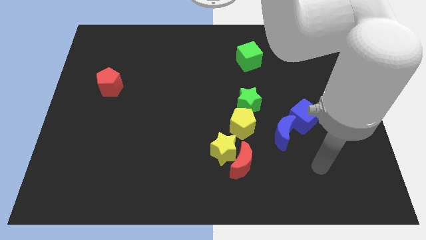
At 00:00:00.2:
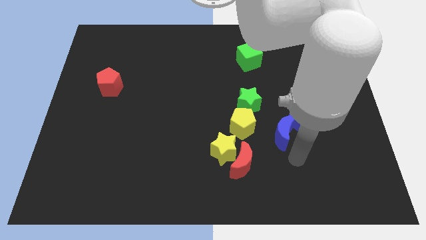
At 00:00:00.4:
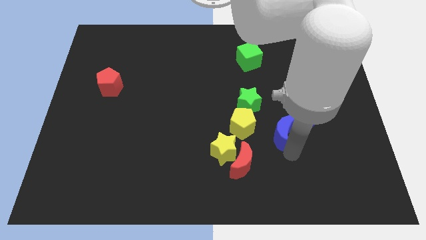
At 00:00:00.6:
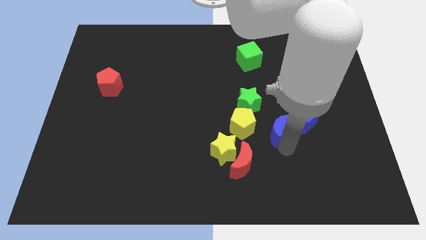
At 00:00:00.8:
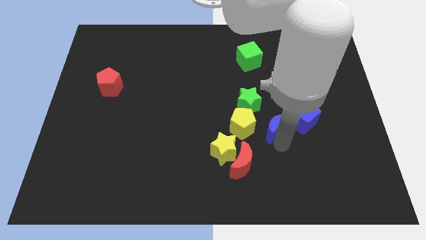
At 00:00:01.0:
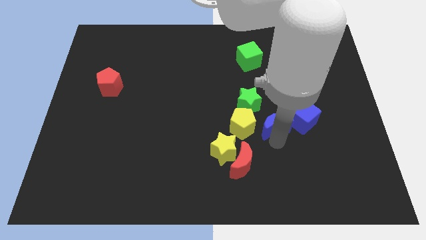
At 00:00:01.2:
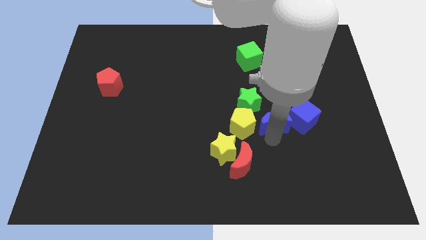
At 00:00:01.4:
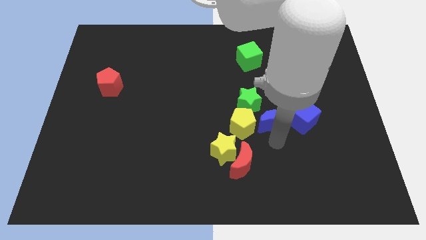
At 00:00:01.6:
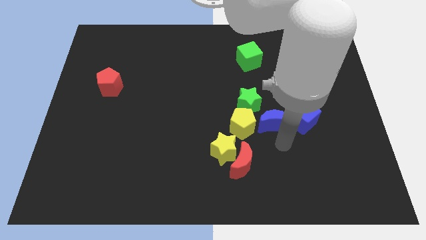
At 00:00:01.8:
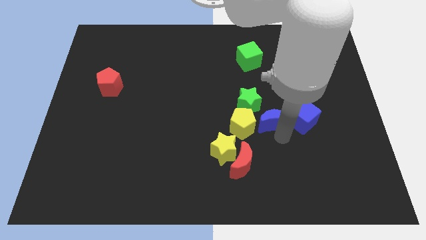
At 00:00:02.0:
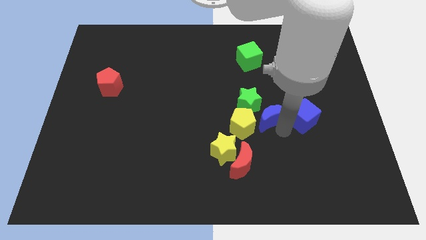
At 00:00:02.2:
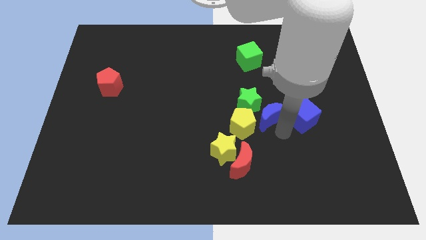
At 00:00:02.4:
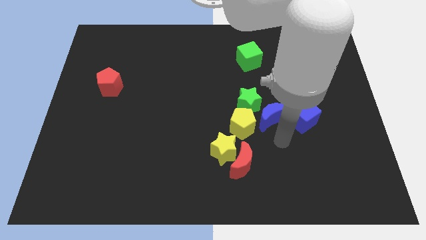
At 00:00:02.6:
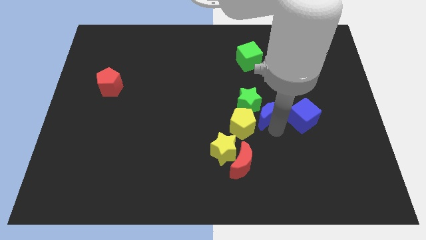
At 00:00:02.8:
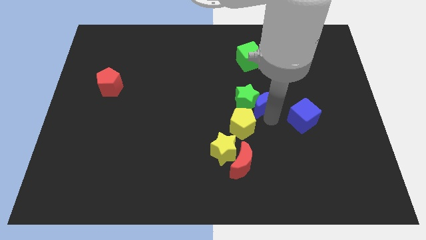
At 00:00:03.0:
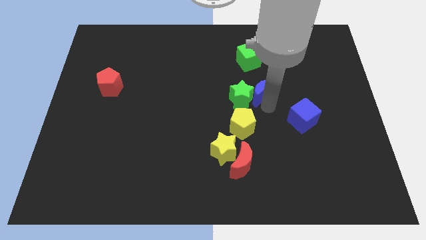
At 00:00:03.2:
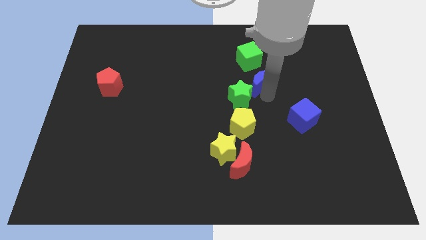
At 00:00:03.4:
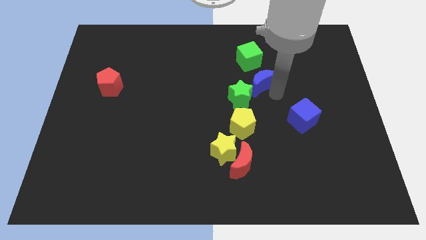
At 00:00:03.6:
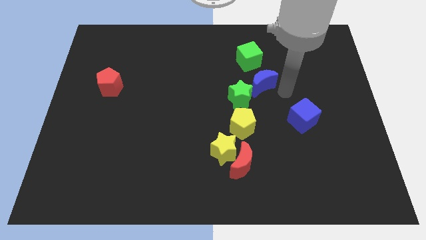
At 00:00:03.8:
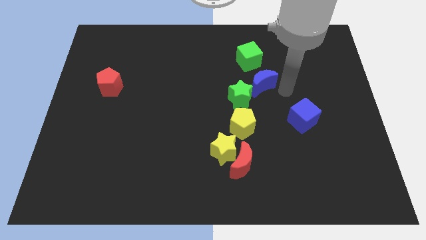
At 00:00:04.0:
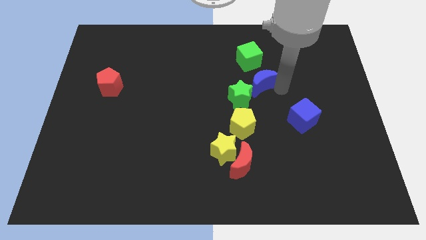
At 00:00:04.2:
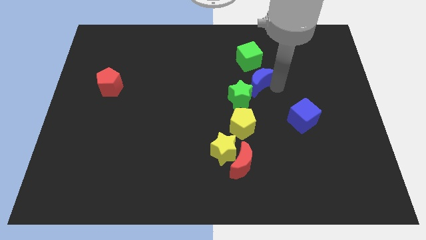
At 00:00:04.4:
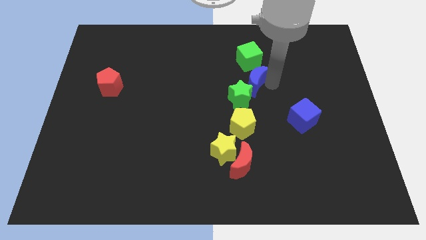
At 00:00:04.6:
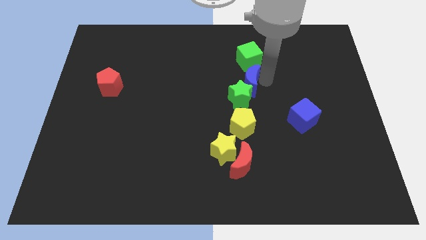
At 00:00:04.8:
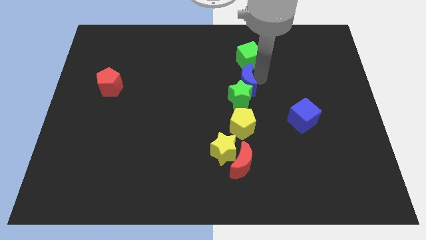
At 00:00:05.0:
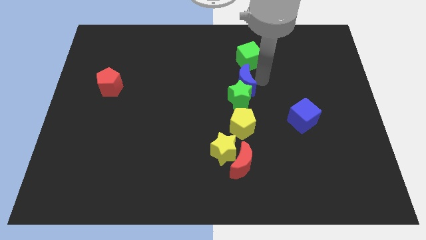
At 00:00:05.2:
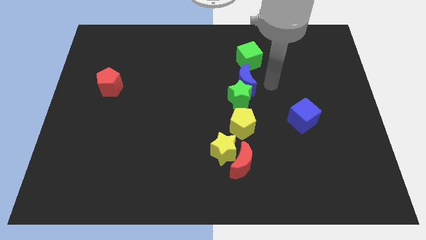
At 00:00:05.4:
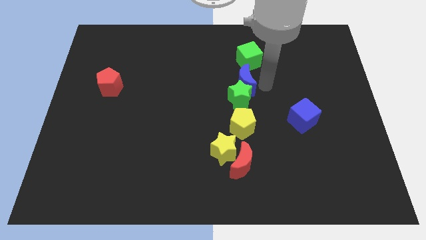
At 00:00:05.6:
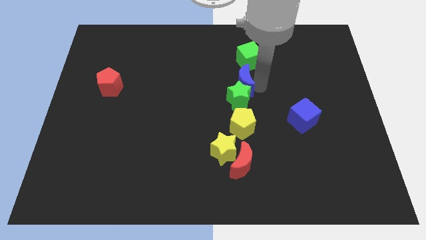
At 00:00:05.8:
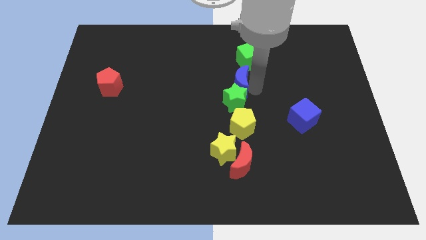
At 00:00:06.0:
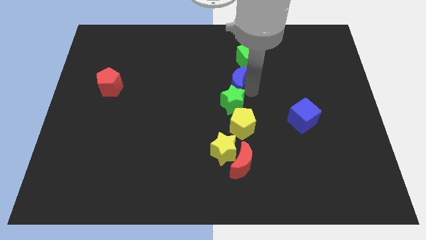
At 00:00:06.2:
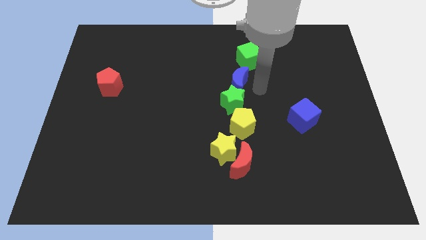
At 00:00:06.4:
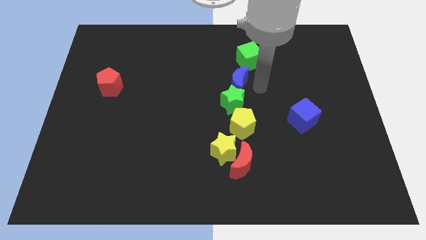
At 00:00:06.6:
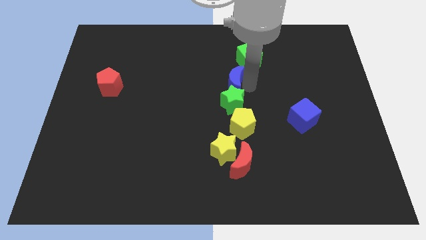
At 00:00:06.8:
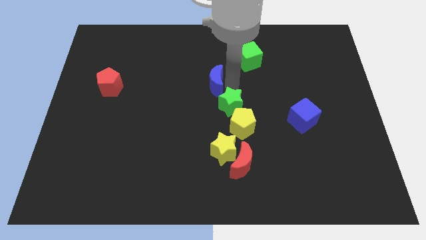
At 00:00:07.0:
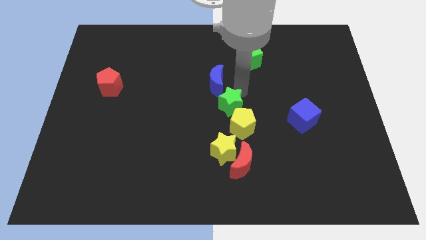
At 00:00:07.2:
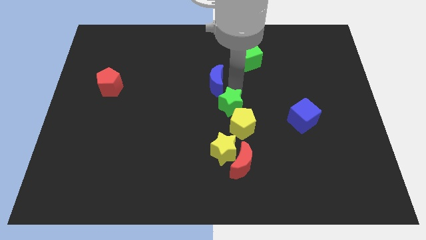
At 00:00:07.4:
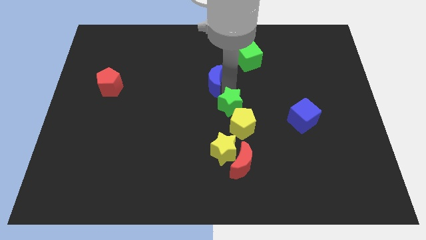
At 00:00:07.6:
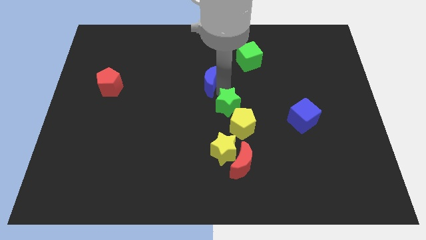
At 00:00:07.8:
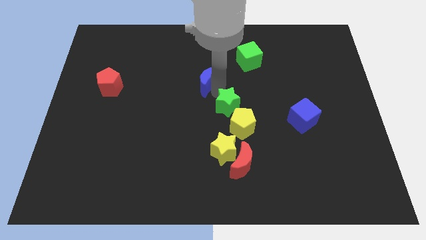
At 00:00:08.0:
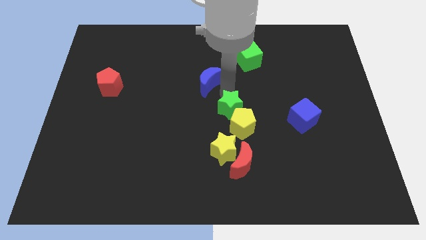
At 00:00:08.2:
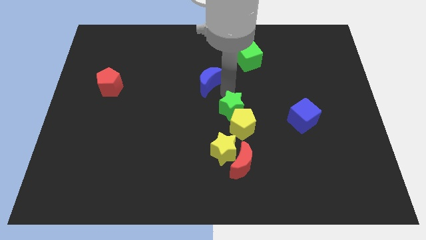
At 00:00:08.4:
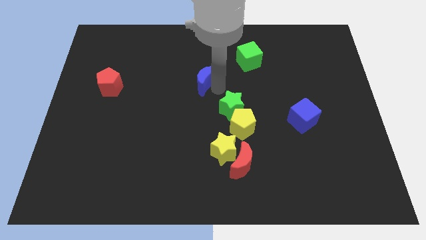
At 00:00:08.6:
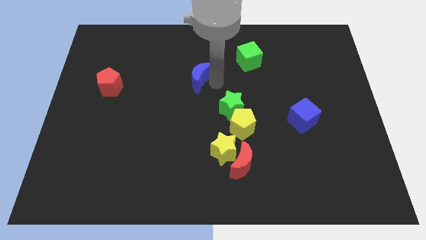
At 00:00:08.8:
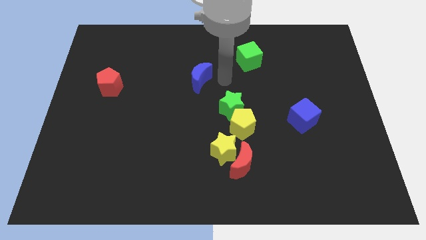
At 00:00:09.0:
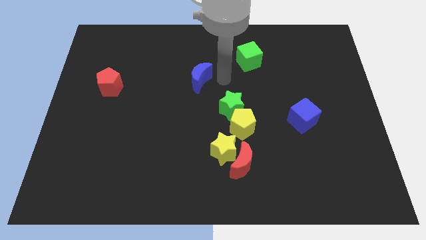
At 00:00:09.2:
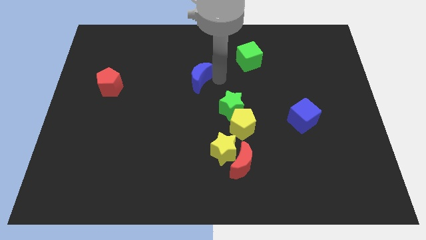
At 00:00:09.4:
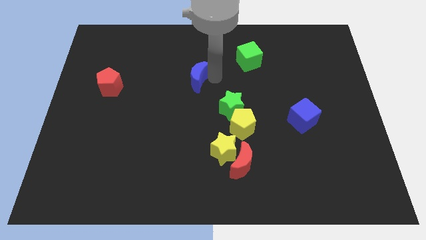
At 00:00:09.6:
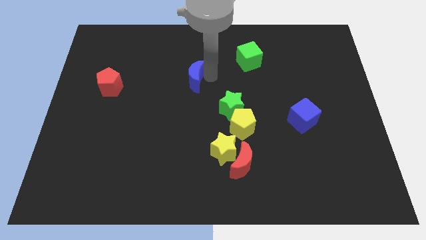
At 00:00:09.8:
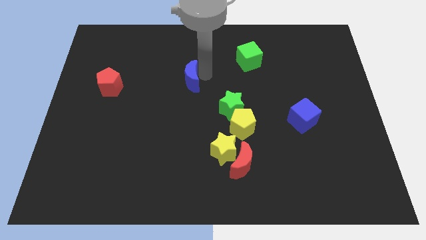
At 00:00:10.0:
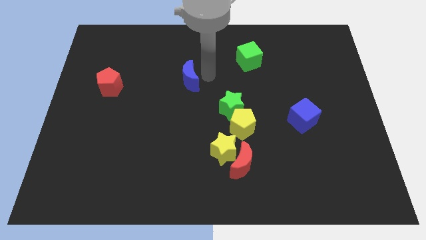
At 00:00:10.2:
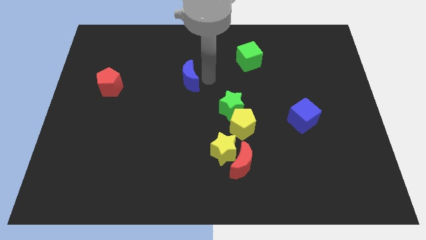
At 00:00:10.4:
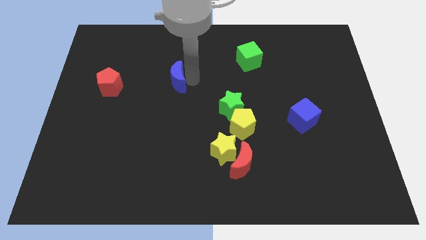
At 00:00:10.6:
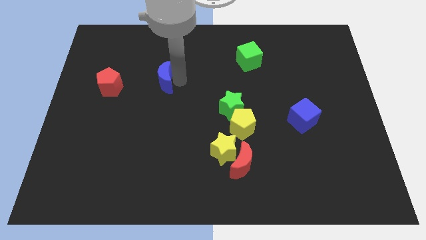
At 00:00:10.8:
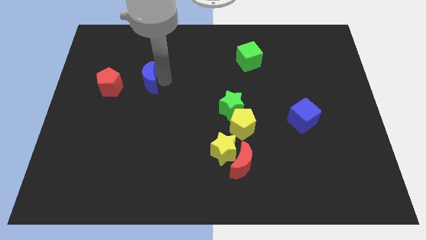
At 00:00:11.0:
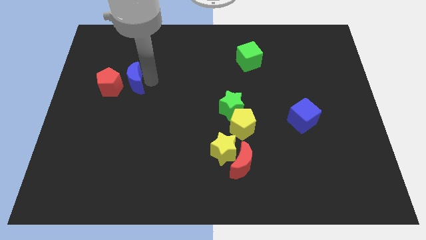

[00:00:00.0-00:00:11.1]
move the blue moon close to the red pentagon

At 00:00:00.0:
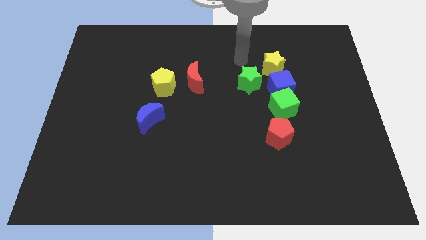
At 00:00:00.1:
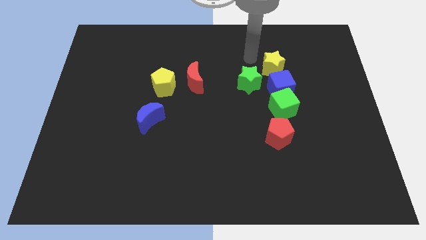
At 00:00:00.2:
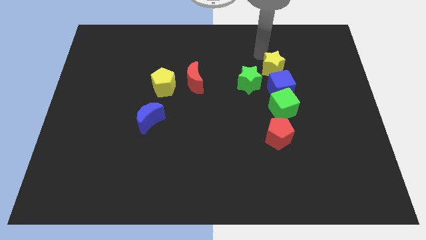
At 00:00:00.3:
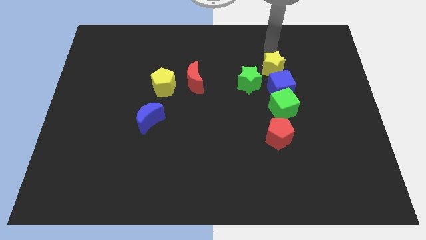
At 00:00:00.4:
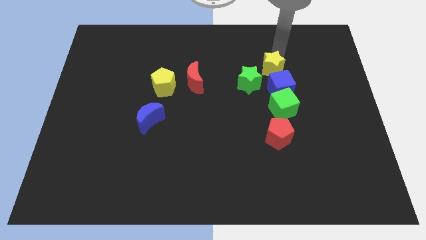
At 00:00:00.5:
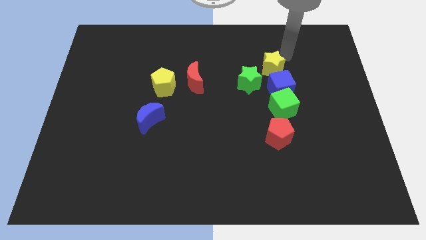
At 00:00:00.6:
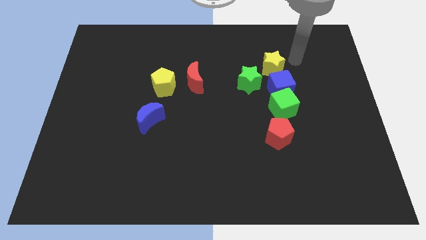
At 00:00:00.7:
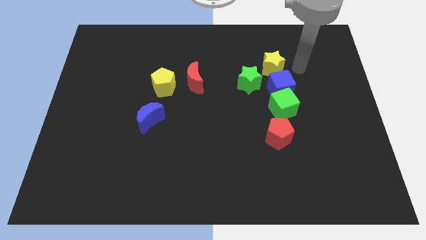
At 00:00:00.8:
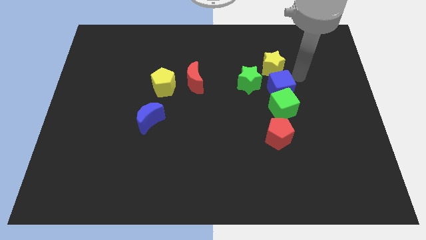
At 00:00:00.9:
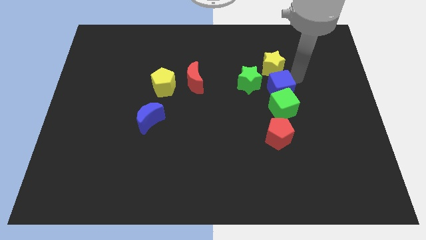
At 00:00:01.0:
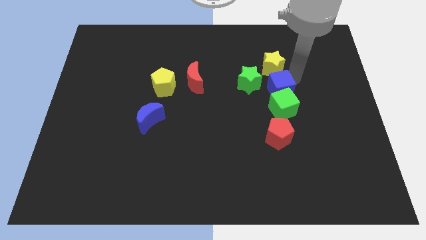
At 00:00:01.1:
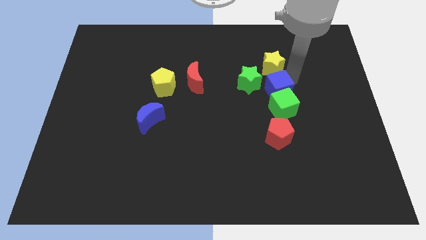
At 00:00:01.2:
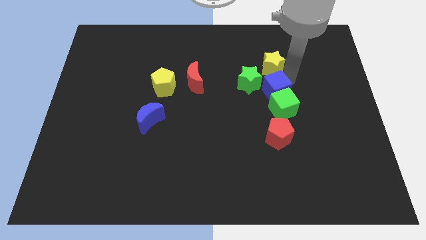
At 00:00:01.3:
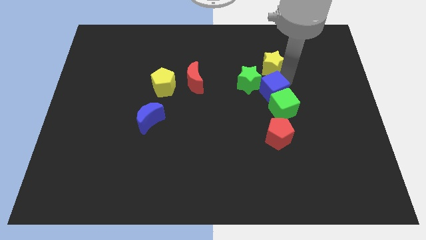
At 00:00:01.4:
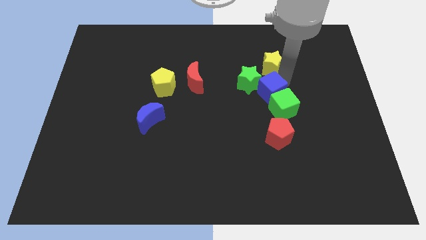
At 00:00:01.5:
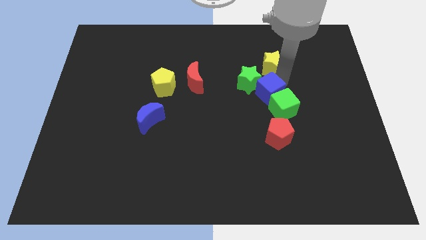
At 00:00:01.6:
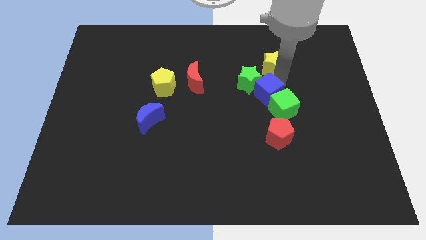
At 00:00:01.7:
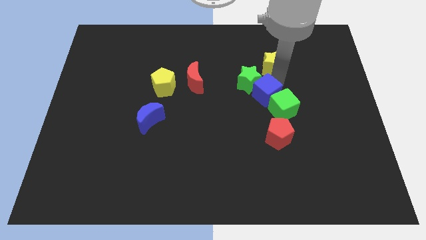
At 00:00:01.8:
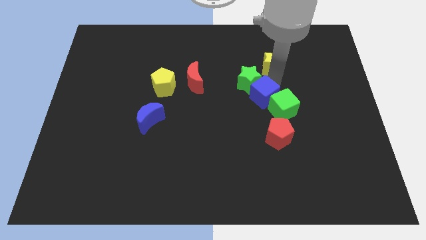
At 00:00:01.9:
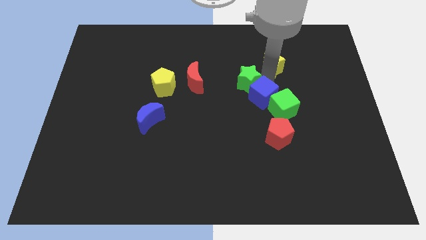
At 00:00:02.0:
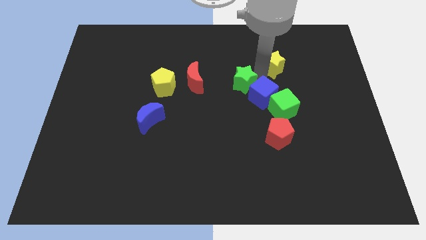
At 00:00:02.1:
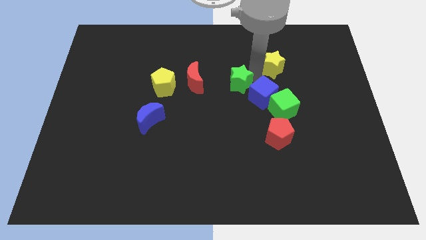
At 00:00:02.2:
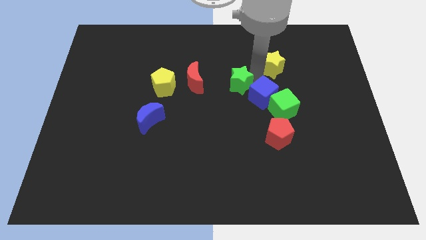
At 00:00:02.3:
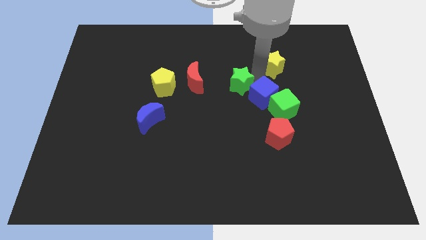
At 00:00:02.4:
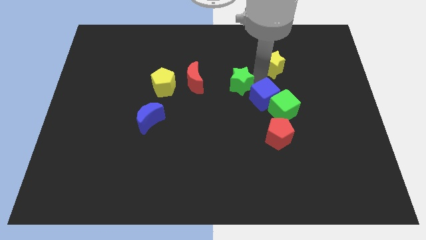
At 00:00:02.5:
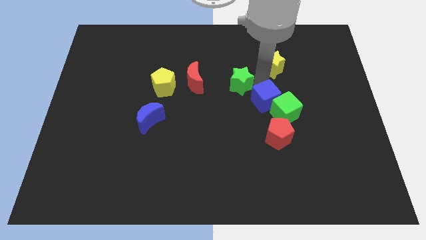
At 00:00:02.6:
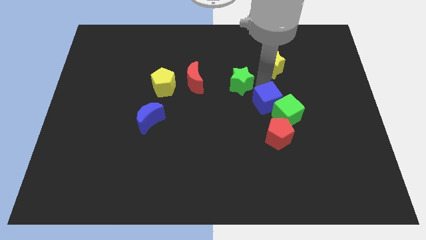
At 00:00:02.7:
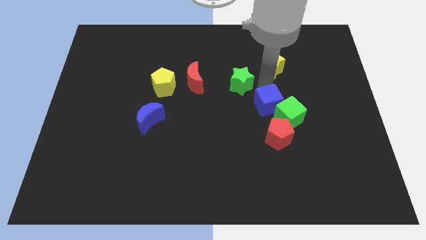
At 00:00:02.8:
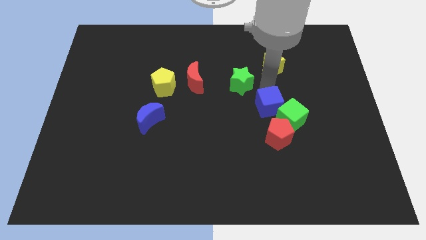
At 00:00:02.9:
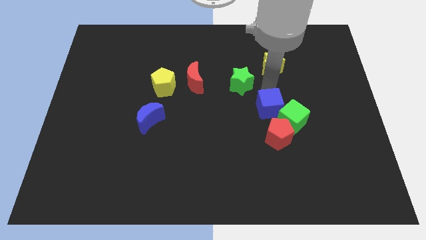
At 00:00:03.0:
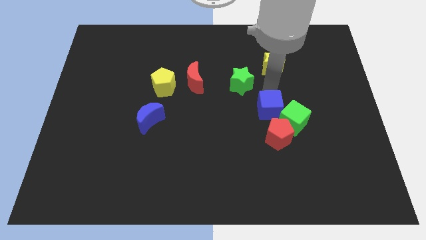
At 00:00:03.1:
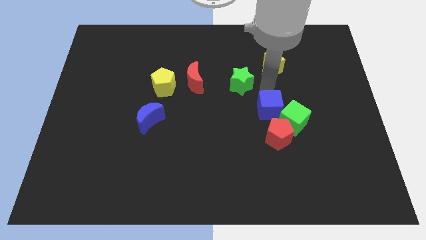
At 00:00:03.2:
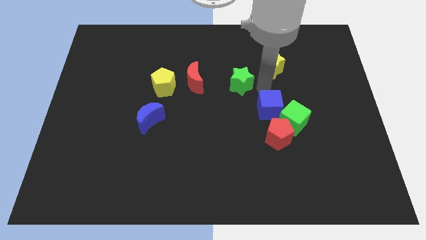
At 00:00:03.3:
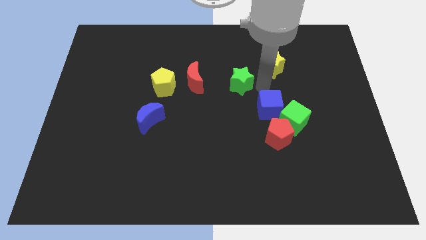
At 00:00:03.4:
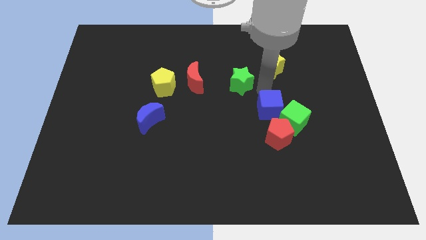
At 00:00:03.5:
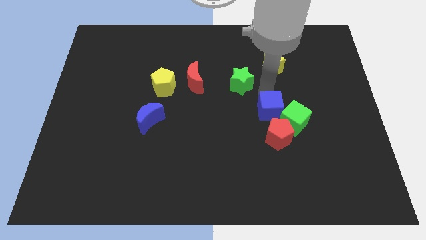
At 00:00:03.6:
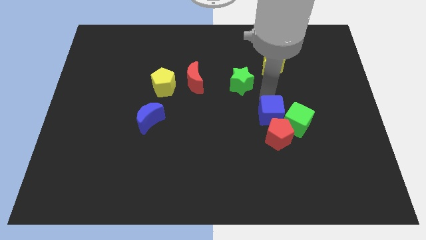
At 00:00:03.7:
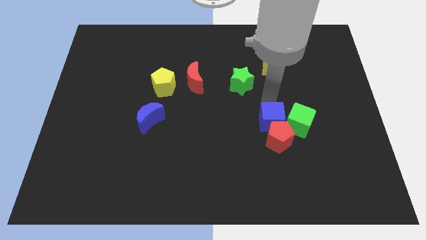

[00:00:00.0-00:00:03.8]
push the blue cube towards the red pentagon
